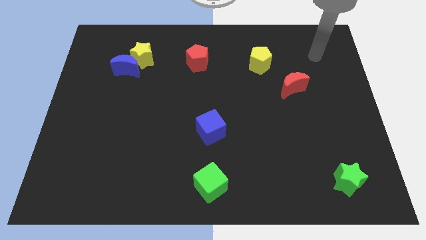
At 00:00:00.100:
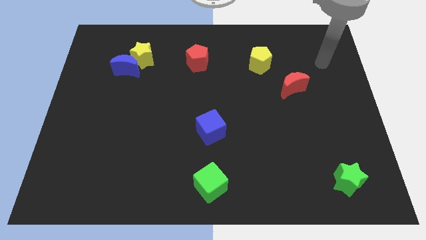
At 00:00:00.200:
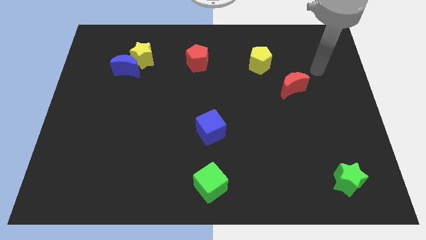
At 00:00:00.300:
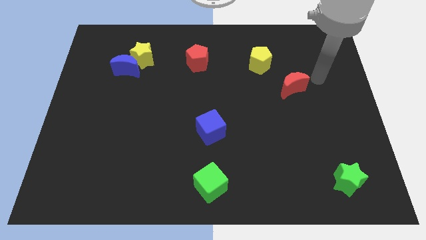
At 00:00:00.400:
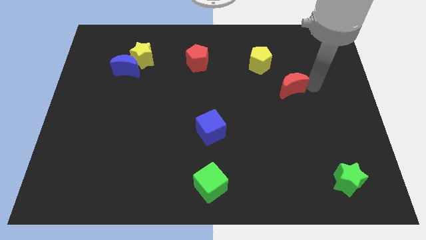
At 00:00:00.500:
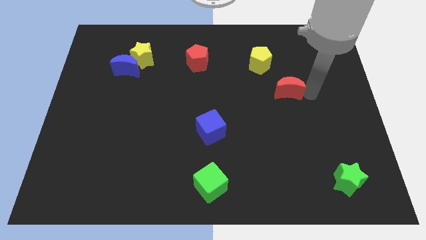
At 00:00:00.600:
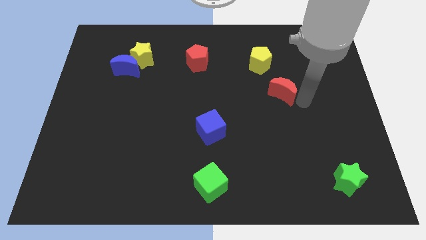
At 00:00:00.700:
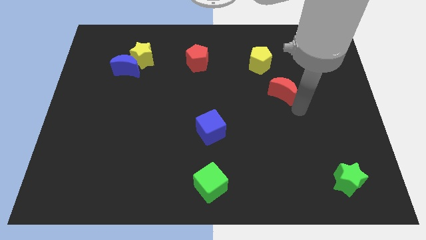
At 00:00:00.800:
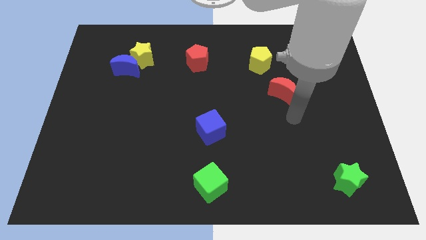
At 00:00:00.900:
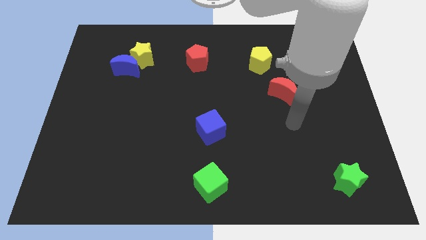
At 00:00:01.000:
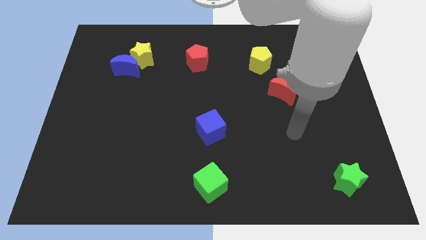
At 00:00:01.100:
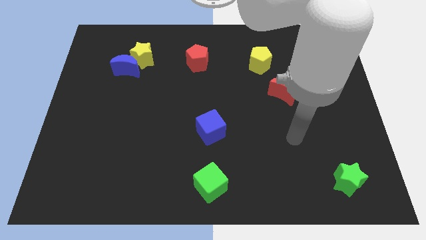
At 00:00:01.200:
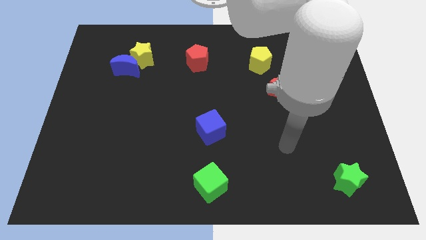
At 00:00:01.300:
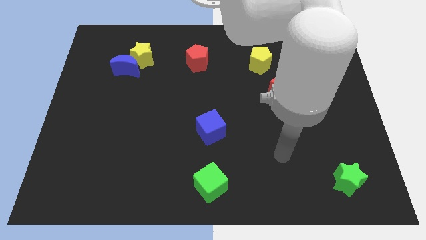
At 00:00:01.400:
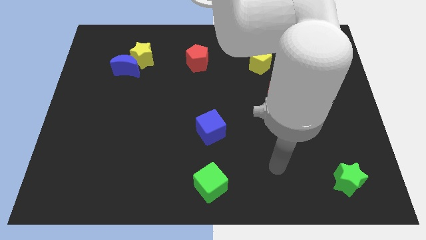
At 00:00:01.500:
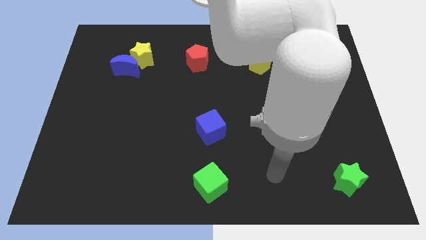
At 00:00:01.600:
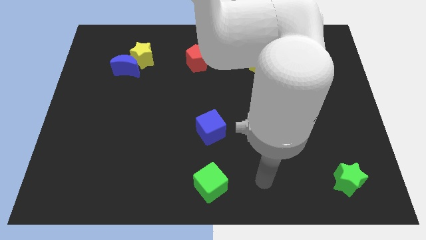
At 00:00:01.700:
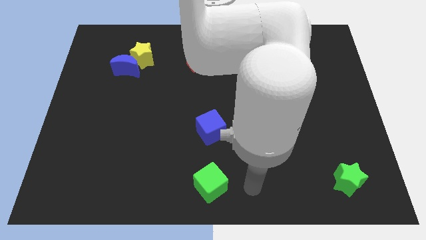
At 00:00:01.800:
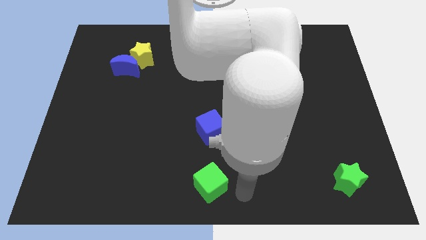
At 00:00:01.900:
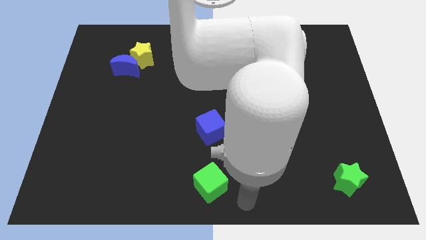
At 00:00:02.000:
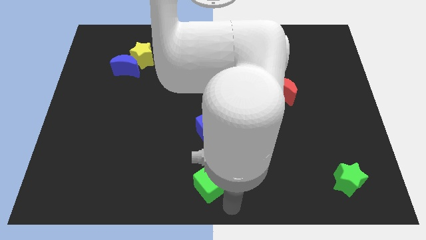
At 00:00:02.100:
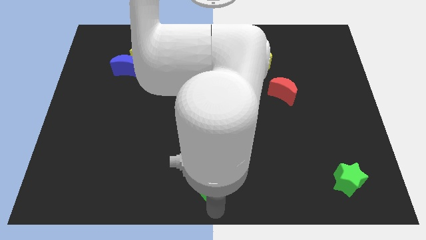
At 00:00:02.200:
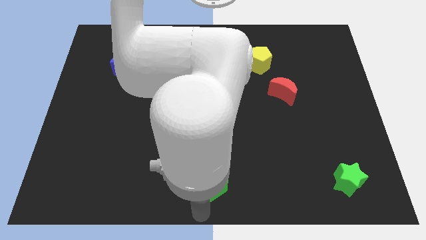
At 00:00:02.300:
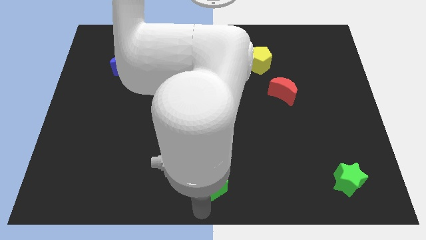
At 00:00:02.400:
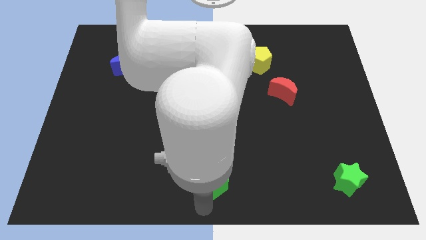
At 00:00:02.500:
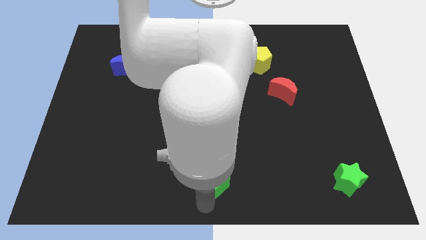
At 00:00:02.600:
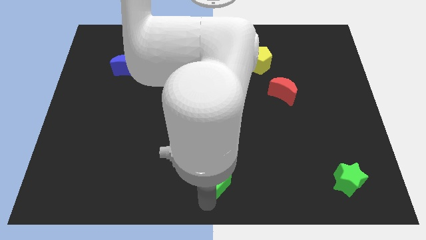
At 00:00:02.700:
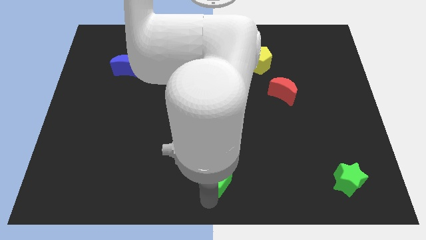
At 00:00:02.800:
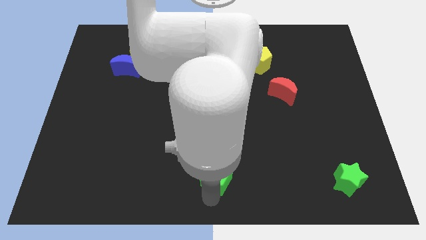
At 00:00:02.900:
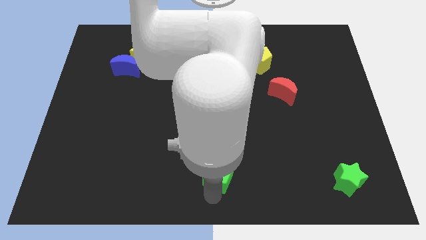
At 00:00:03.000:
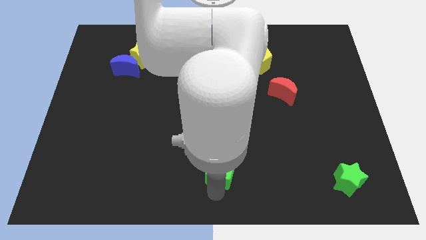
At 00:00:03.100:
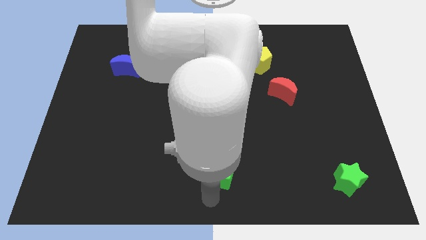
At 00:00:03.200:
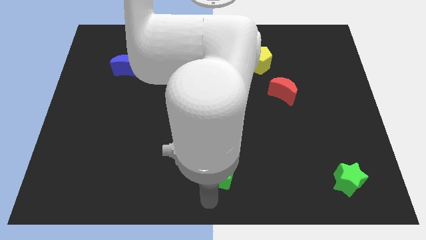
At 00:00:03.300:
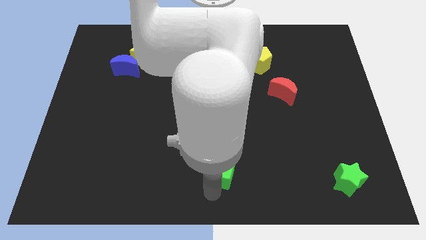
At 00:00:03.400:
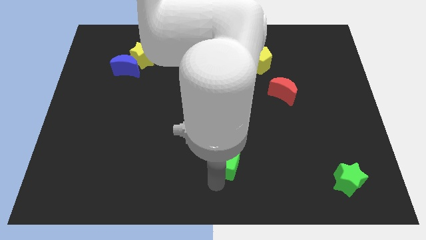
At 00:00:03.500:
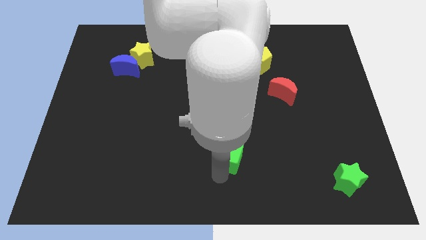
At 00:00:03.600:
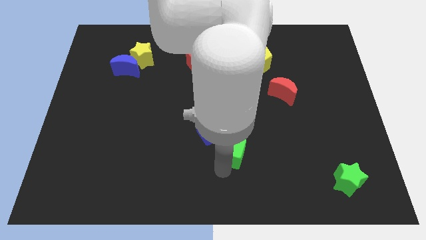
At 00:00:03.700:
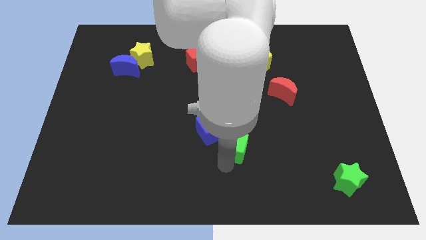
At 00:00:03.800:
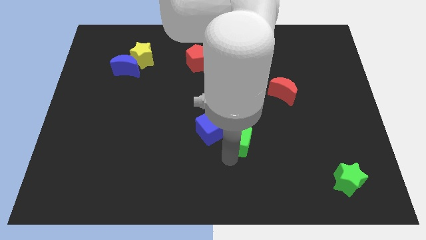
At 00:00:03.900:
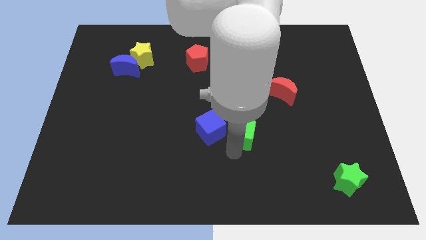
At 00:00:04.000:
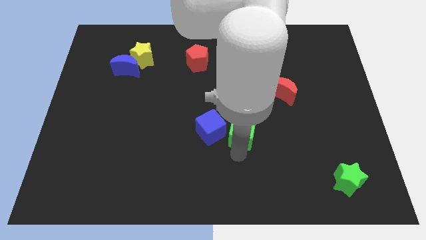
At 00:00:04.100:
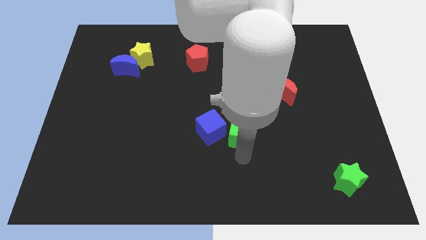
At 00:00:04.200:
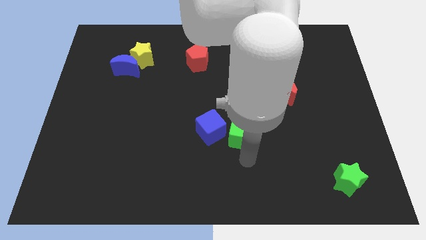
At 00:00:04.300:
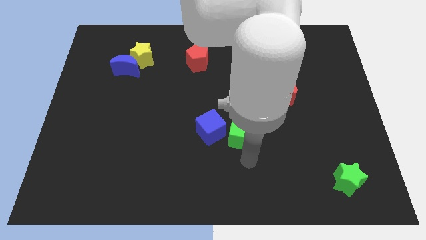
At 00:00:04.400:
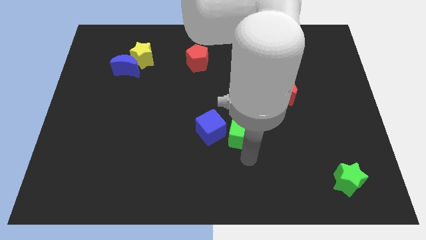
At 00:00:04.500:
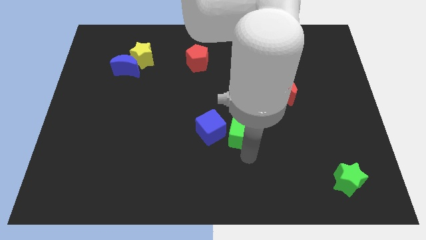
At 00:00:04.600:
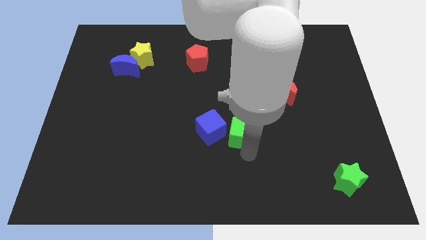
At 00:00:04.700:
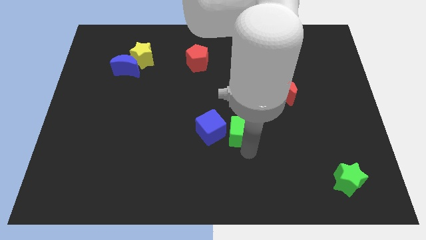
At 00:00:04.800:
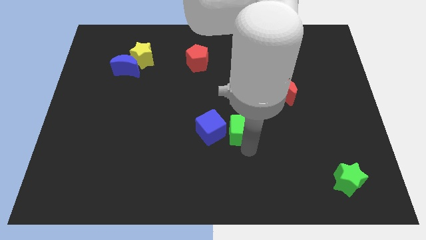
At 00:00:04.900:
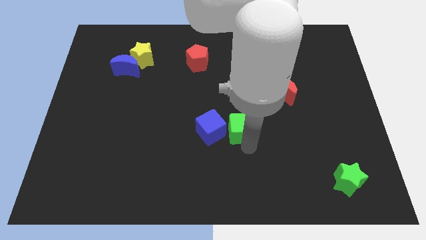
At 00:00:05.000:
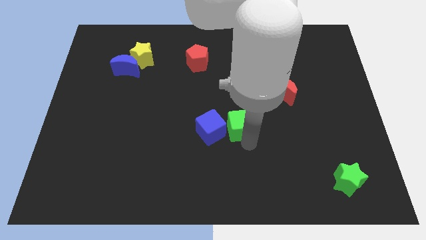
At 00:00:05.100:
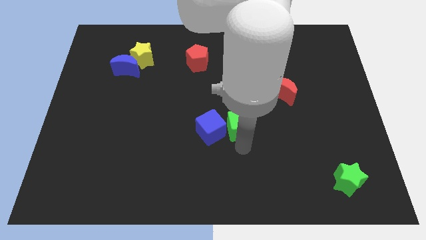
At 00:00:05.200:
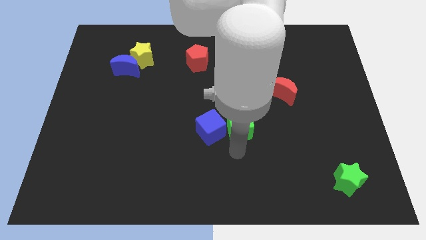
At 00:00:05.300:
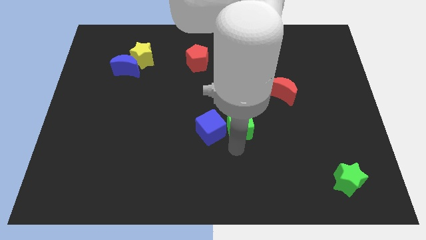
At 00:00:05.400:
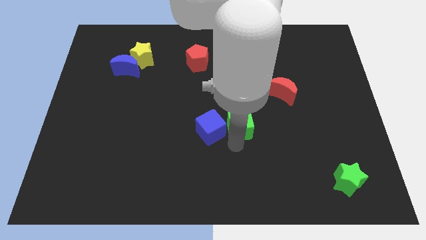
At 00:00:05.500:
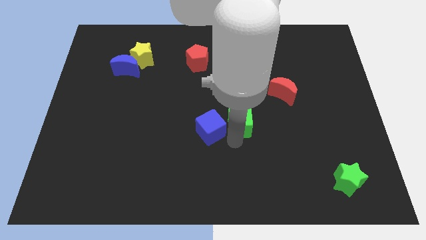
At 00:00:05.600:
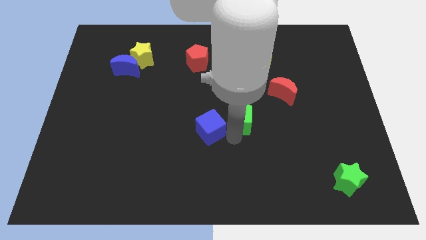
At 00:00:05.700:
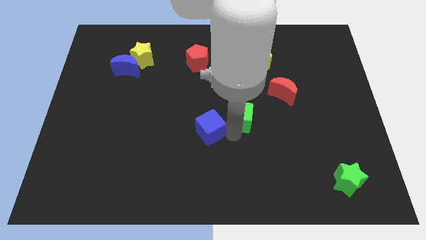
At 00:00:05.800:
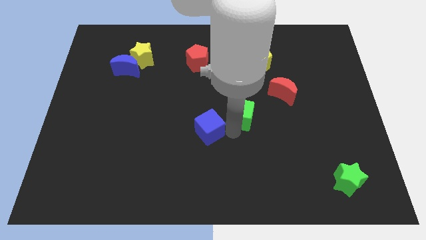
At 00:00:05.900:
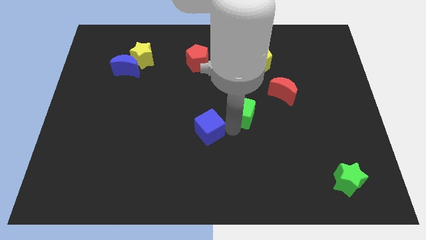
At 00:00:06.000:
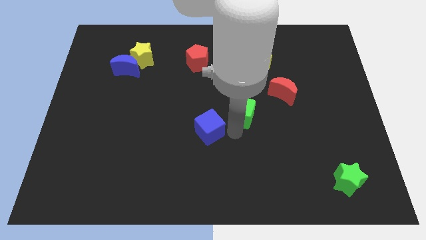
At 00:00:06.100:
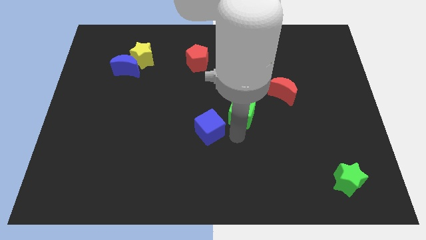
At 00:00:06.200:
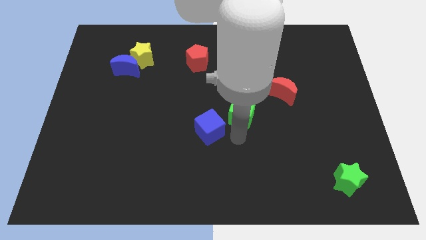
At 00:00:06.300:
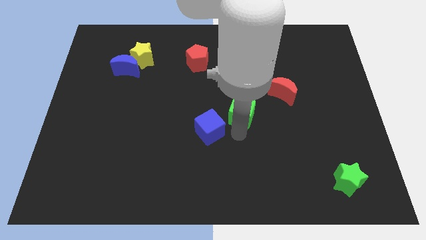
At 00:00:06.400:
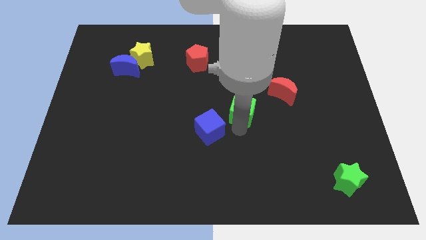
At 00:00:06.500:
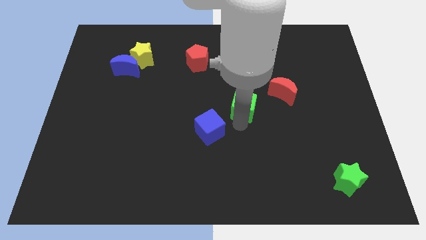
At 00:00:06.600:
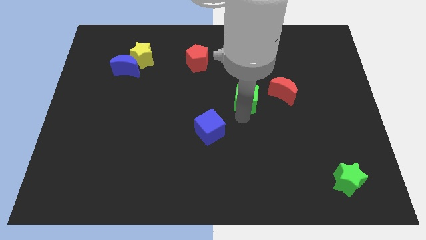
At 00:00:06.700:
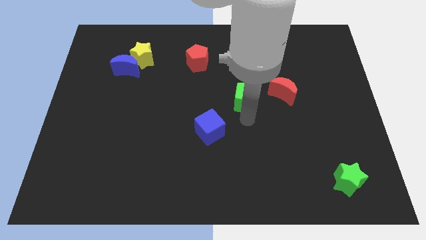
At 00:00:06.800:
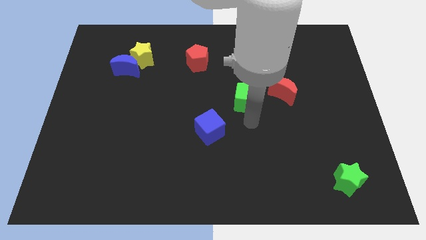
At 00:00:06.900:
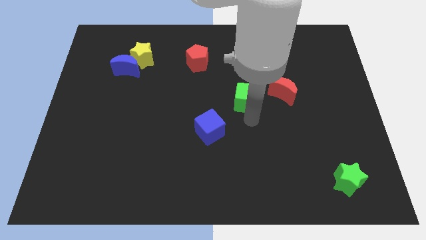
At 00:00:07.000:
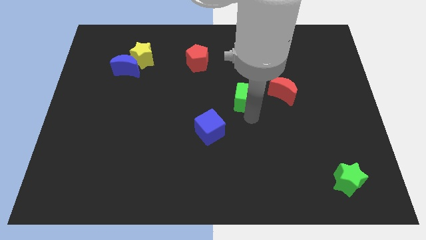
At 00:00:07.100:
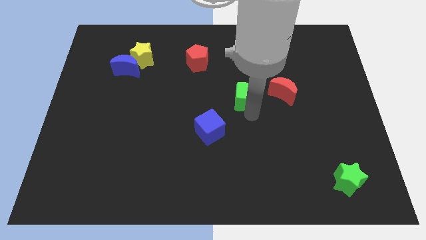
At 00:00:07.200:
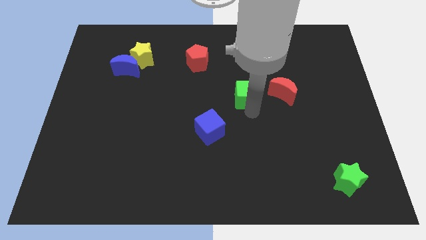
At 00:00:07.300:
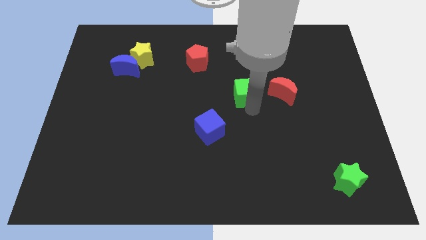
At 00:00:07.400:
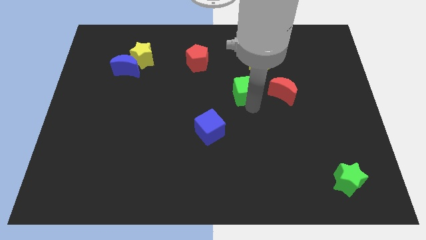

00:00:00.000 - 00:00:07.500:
move the green cube diagonally down and to the left of the yellow pentagon

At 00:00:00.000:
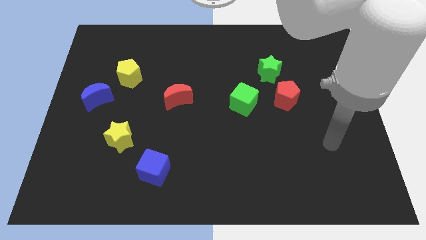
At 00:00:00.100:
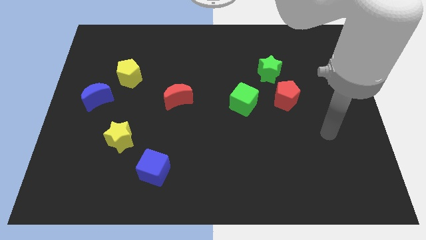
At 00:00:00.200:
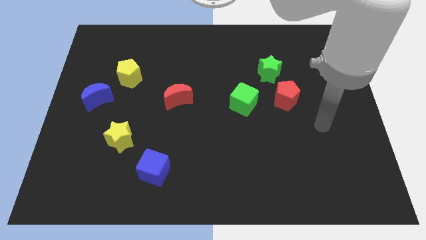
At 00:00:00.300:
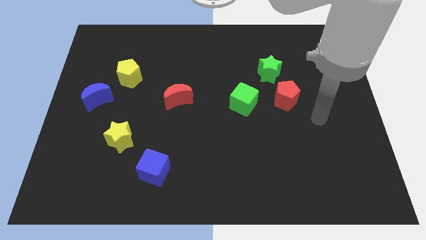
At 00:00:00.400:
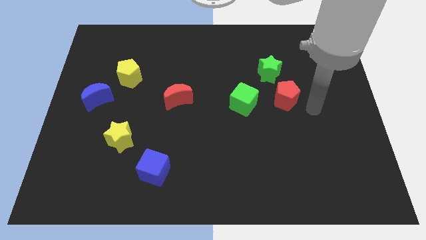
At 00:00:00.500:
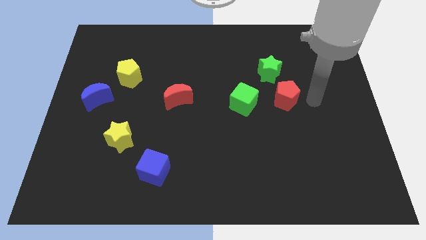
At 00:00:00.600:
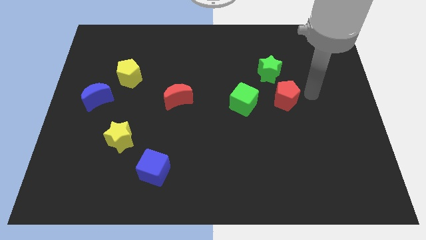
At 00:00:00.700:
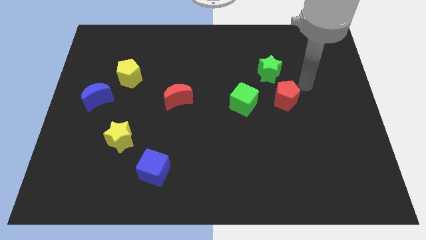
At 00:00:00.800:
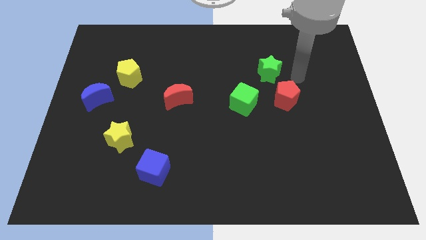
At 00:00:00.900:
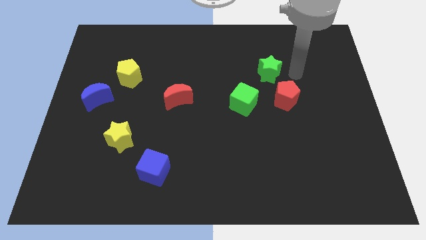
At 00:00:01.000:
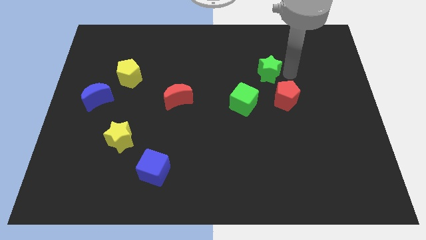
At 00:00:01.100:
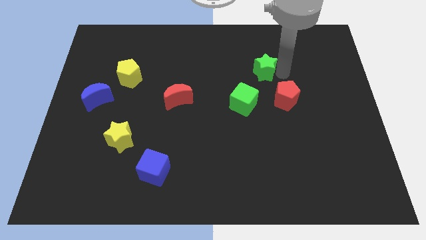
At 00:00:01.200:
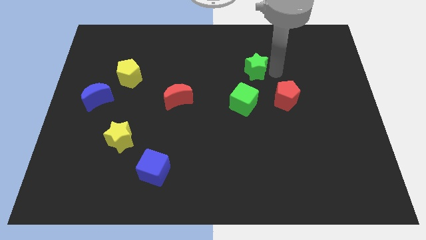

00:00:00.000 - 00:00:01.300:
put the green star to the top side of the green cube
